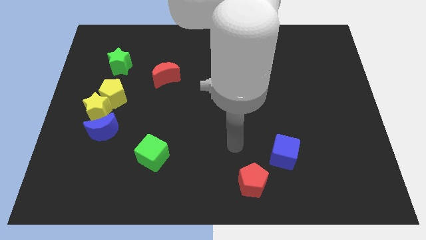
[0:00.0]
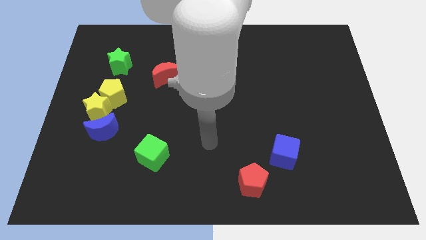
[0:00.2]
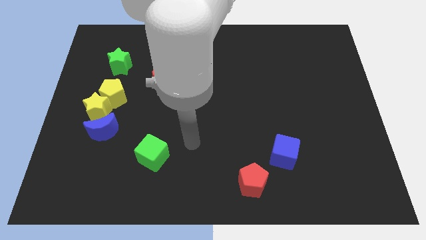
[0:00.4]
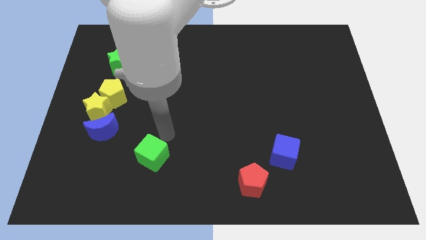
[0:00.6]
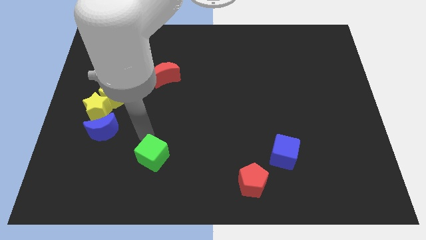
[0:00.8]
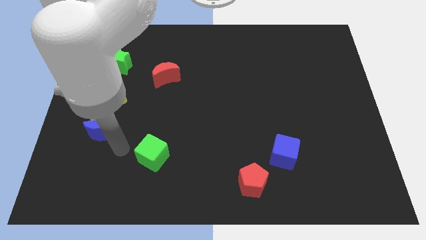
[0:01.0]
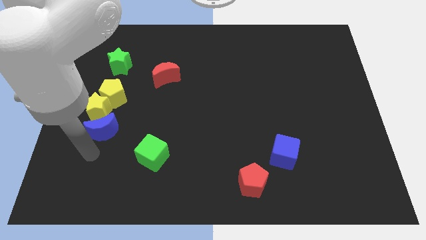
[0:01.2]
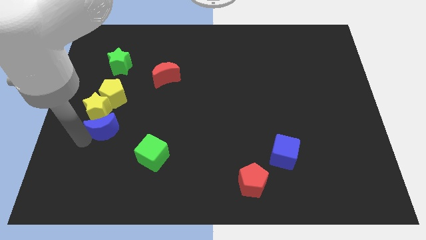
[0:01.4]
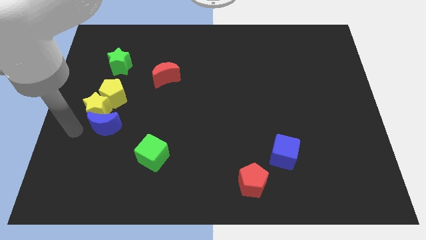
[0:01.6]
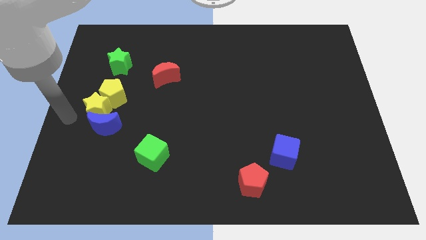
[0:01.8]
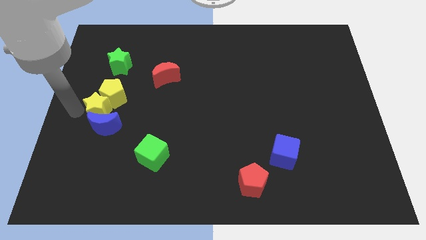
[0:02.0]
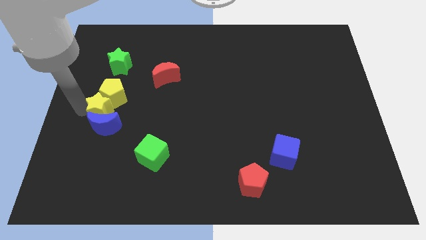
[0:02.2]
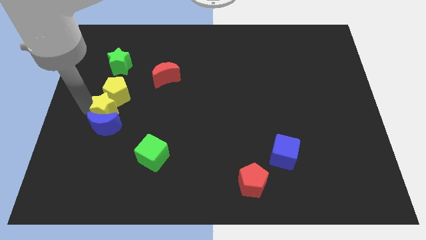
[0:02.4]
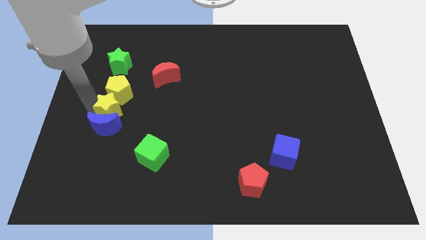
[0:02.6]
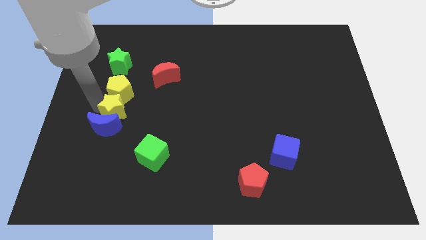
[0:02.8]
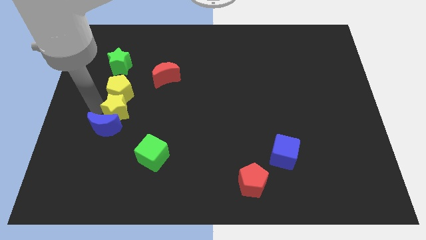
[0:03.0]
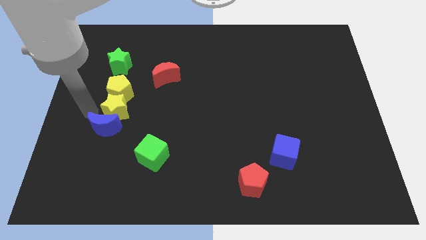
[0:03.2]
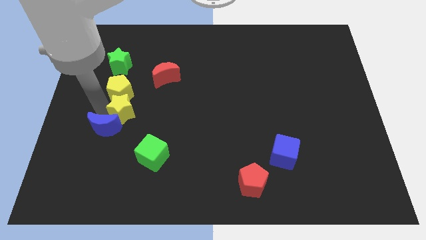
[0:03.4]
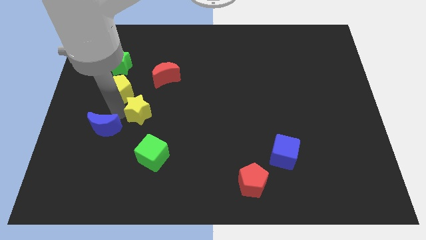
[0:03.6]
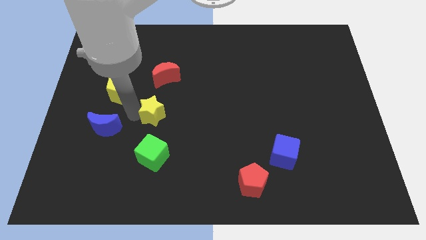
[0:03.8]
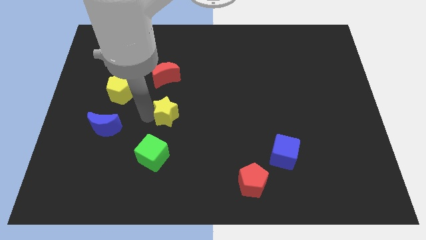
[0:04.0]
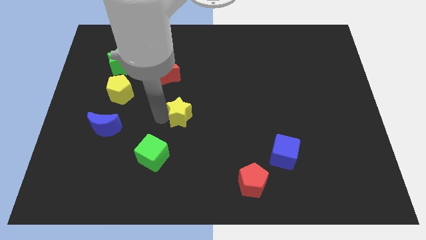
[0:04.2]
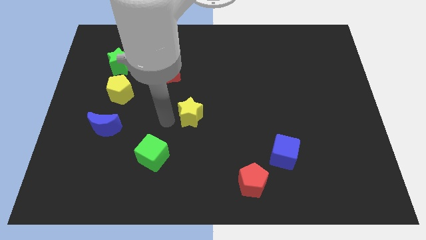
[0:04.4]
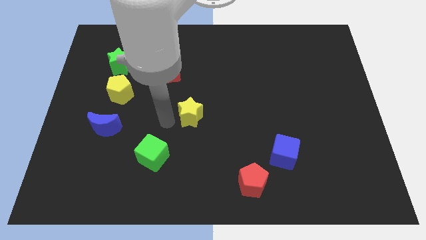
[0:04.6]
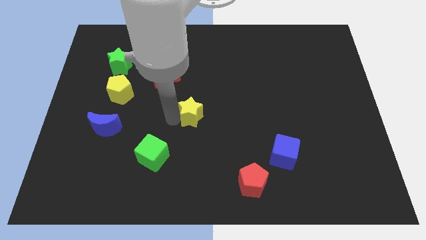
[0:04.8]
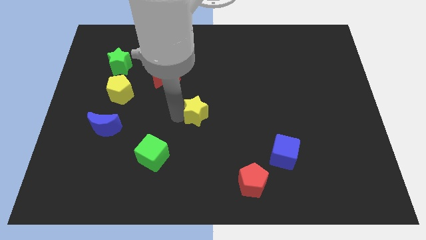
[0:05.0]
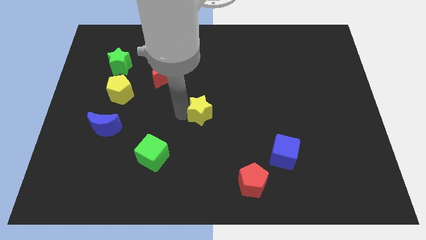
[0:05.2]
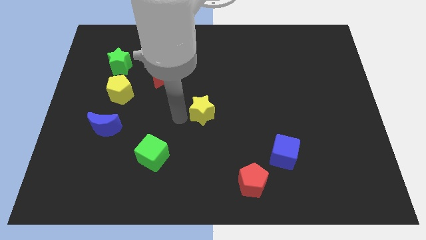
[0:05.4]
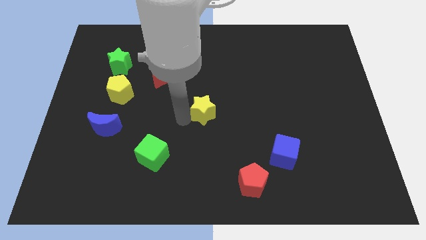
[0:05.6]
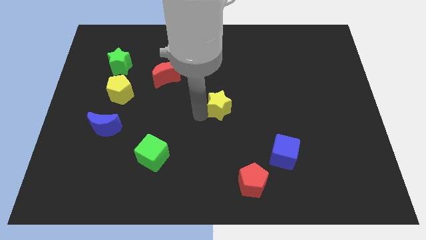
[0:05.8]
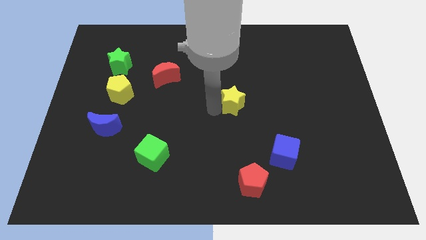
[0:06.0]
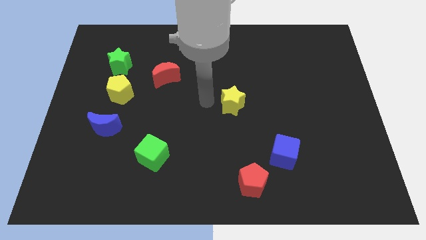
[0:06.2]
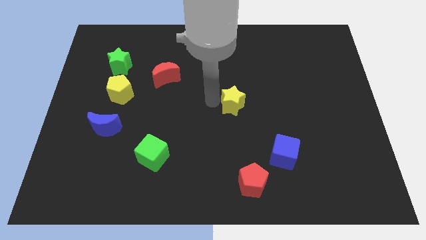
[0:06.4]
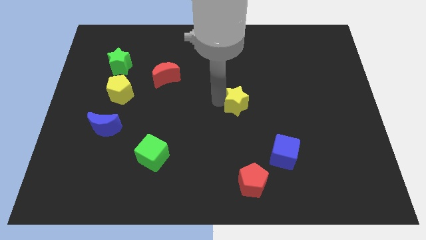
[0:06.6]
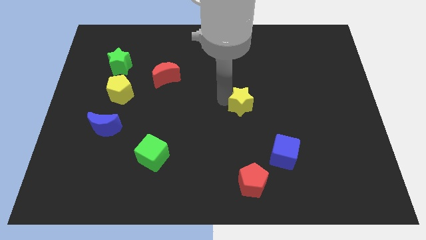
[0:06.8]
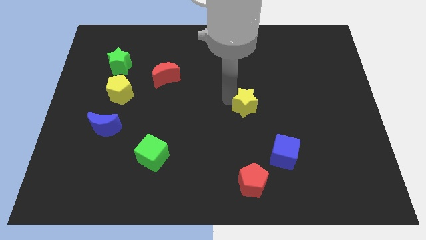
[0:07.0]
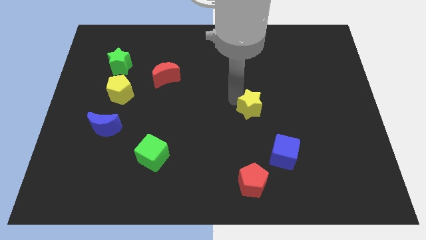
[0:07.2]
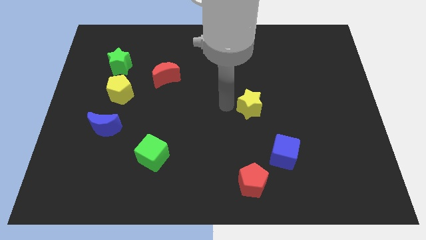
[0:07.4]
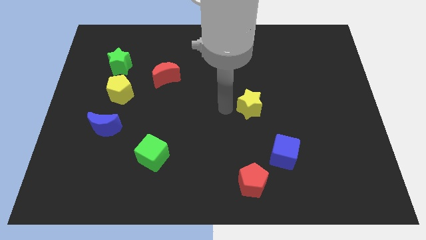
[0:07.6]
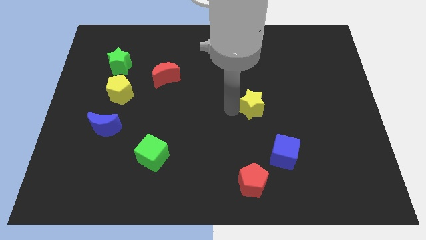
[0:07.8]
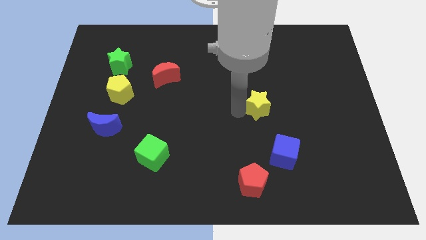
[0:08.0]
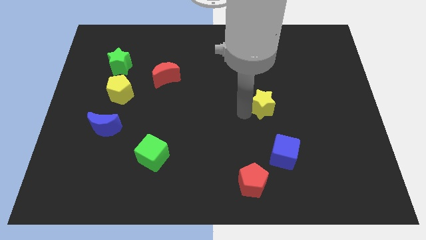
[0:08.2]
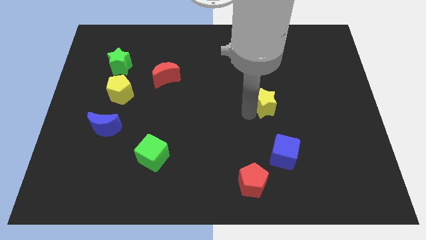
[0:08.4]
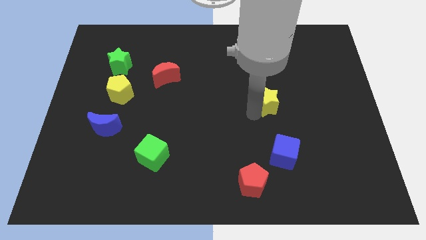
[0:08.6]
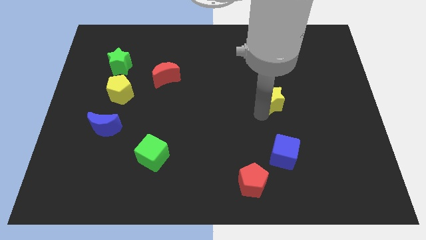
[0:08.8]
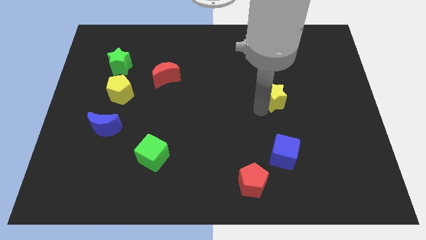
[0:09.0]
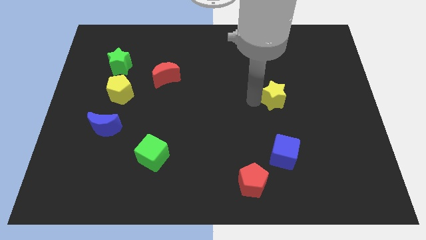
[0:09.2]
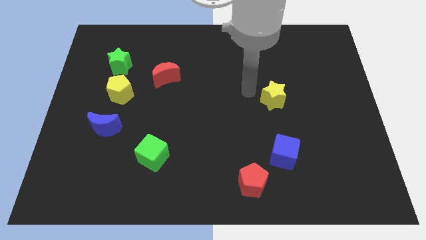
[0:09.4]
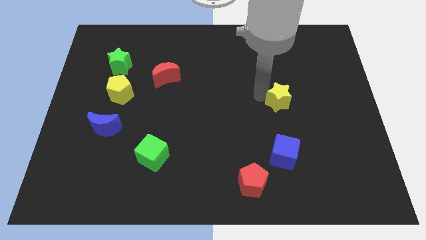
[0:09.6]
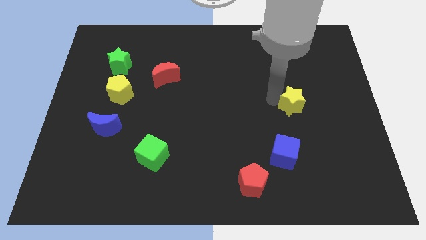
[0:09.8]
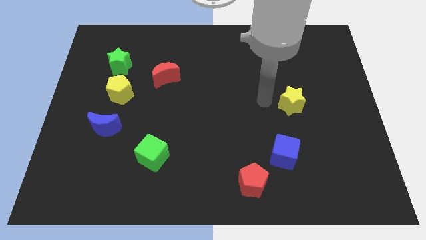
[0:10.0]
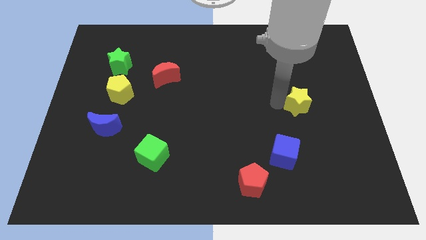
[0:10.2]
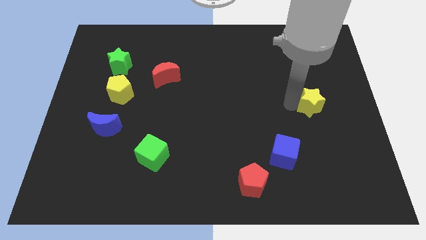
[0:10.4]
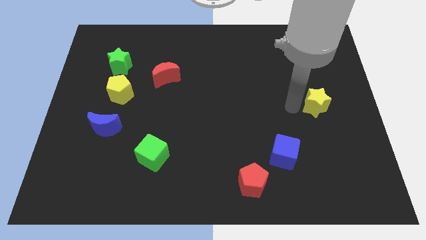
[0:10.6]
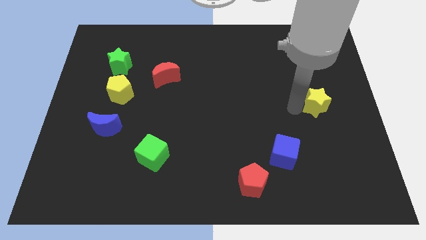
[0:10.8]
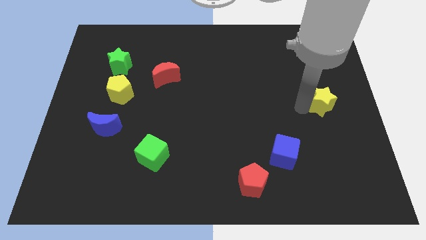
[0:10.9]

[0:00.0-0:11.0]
move the yellow star to the right side

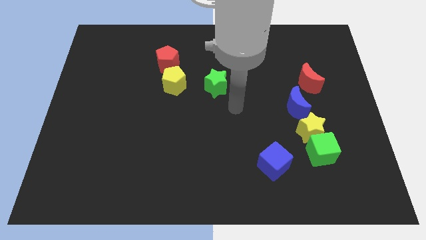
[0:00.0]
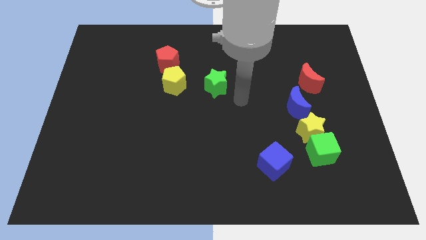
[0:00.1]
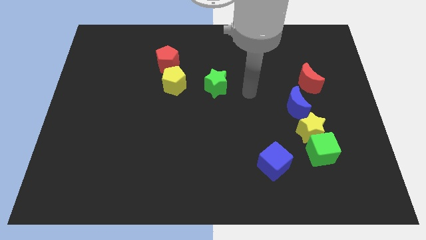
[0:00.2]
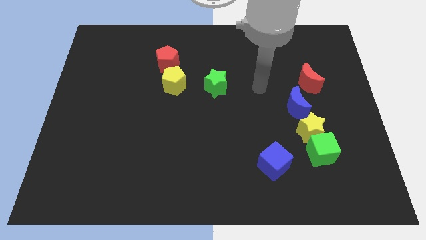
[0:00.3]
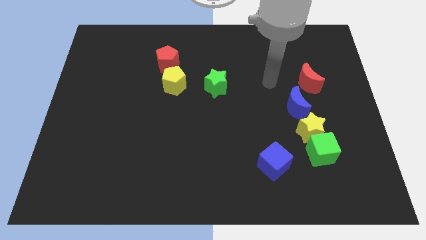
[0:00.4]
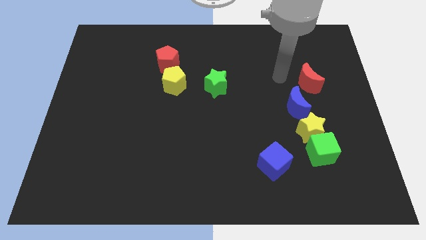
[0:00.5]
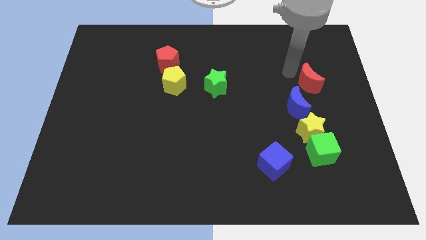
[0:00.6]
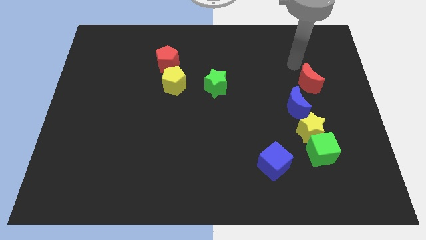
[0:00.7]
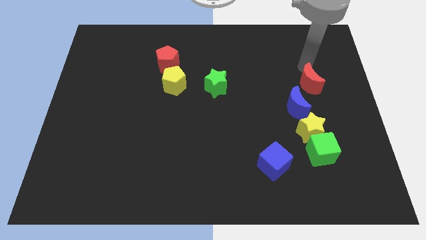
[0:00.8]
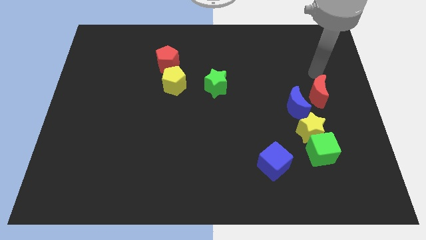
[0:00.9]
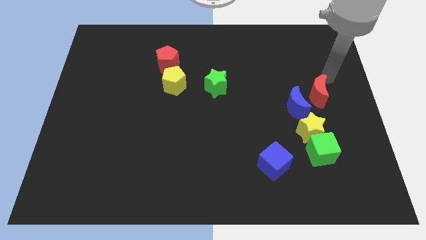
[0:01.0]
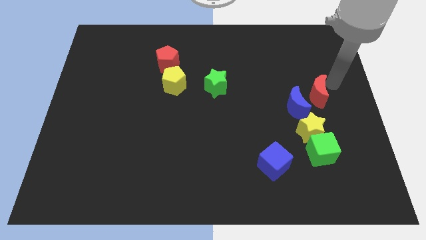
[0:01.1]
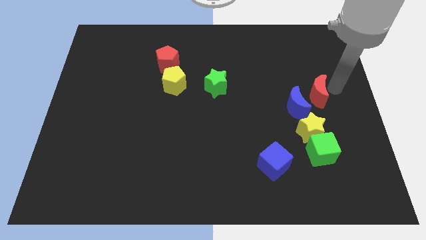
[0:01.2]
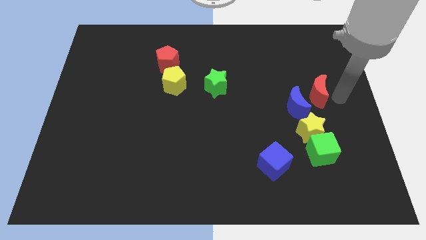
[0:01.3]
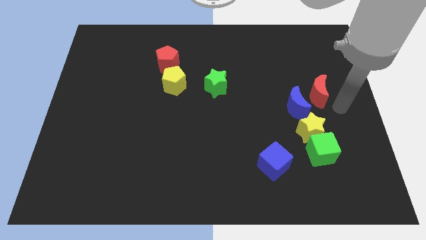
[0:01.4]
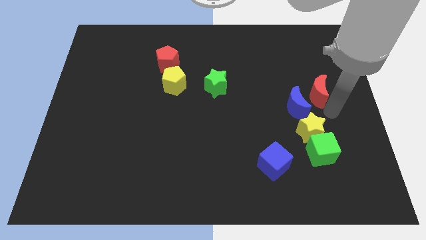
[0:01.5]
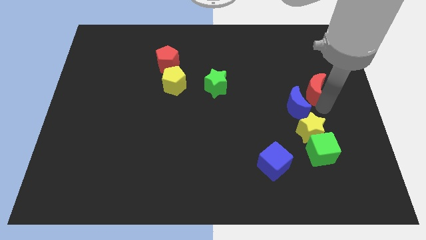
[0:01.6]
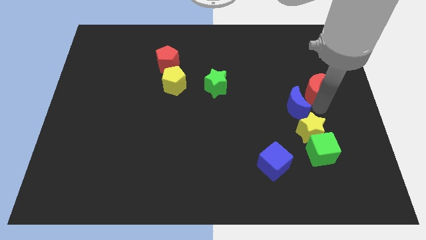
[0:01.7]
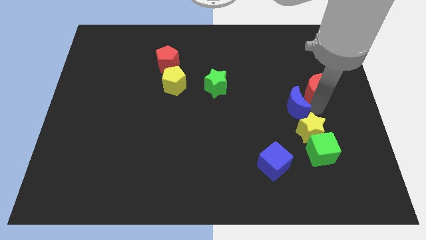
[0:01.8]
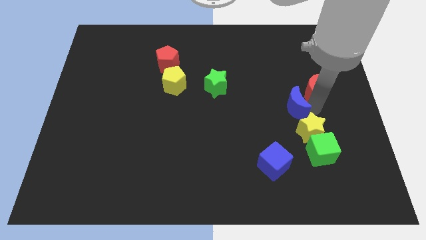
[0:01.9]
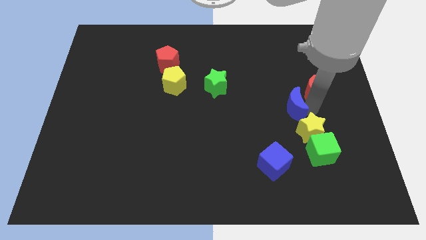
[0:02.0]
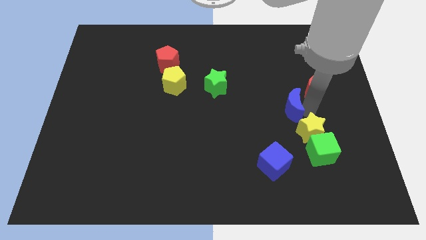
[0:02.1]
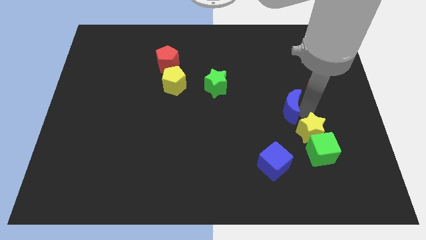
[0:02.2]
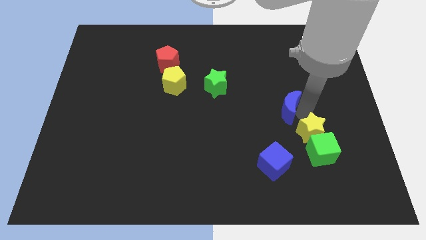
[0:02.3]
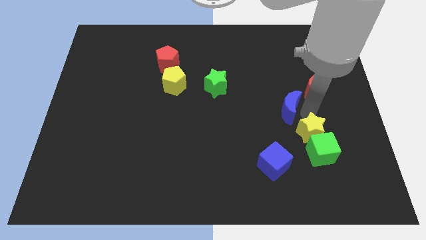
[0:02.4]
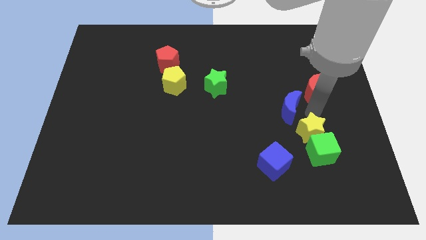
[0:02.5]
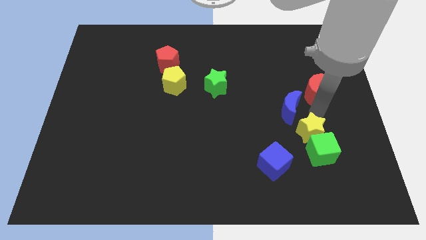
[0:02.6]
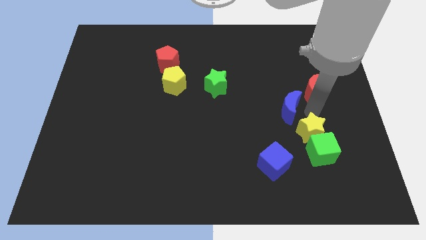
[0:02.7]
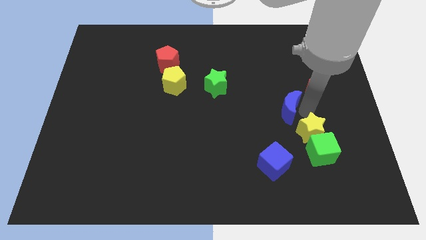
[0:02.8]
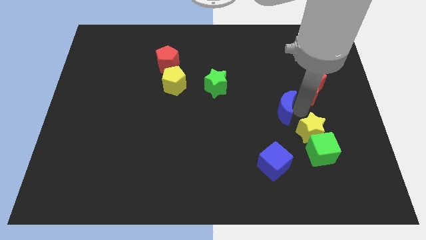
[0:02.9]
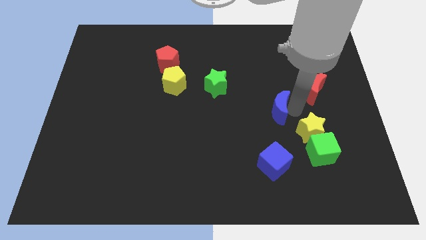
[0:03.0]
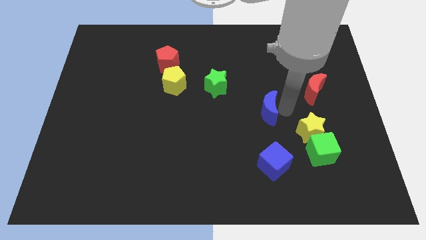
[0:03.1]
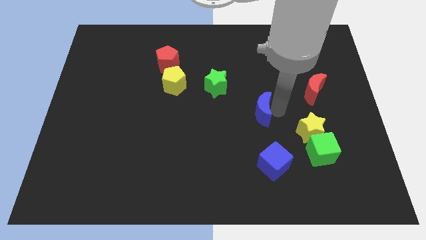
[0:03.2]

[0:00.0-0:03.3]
slide the blue moon to the middle of the board
